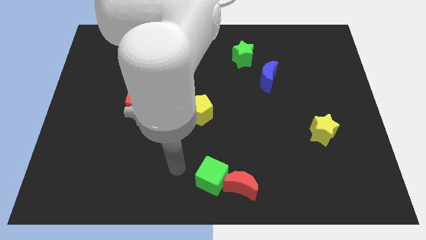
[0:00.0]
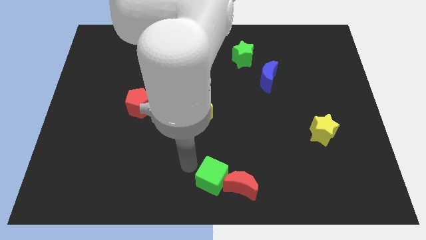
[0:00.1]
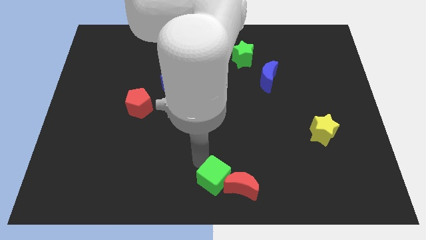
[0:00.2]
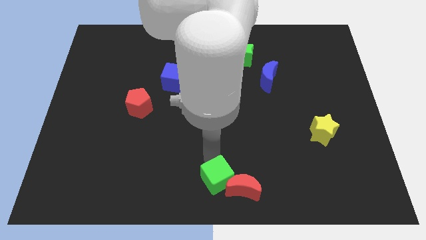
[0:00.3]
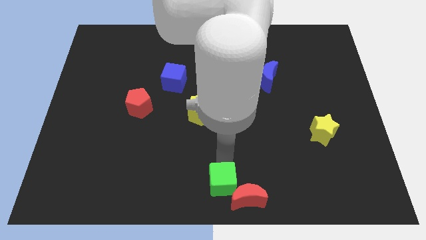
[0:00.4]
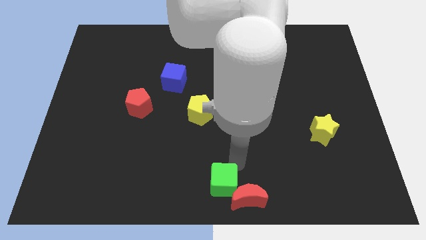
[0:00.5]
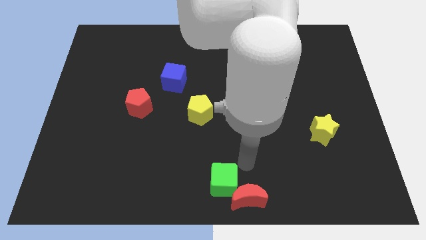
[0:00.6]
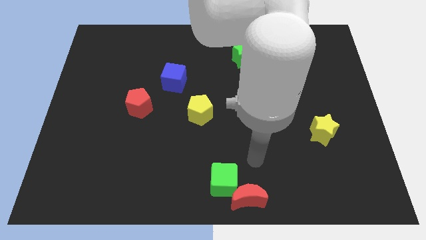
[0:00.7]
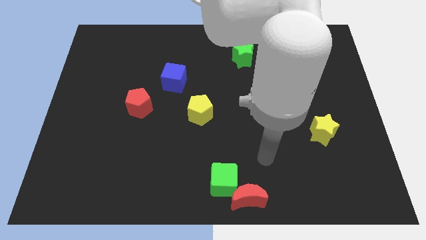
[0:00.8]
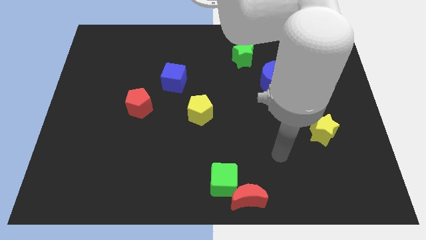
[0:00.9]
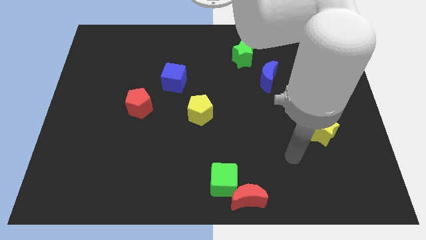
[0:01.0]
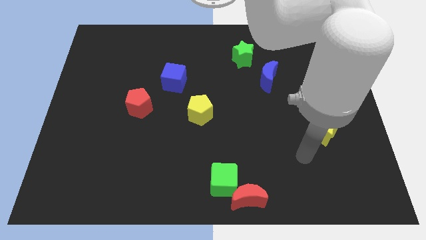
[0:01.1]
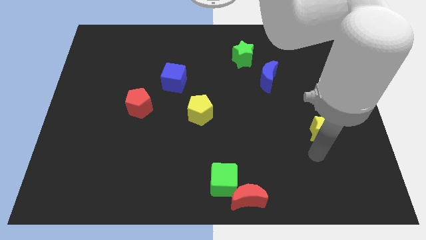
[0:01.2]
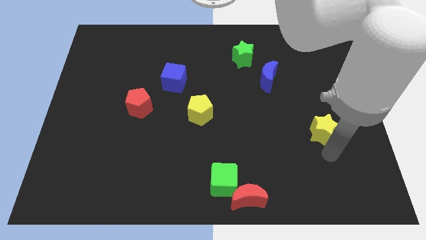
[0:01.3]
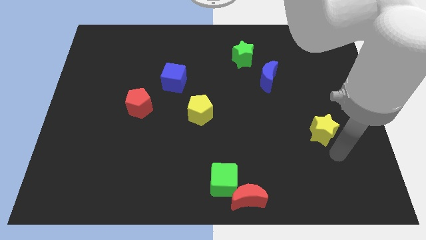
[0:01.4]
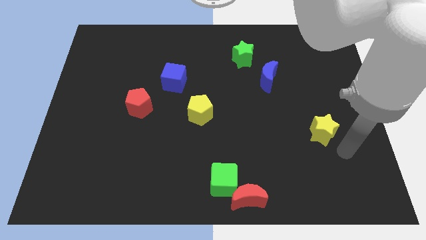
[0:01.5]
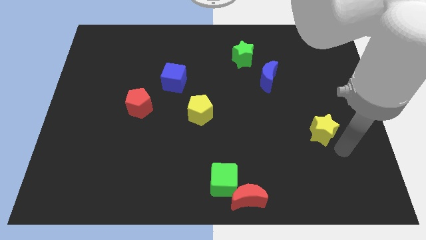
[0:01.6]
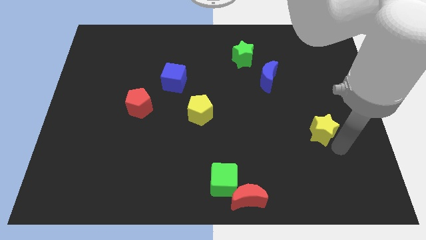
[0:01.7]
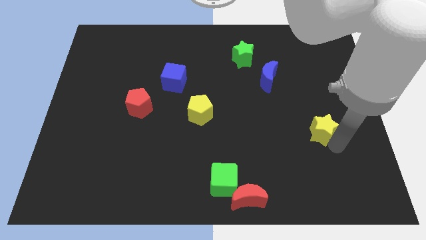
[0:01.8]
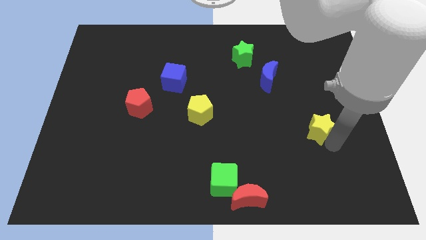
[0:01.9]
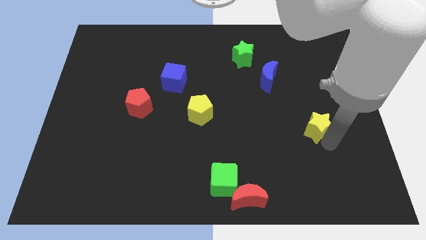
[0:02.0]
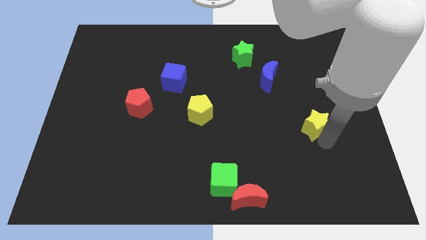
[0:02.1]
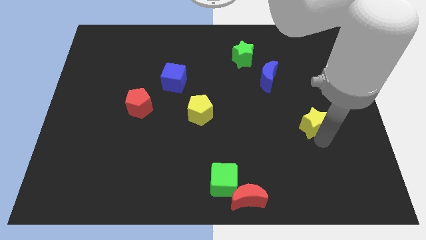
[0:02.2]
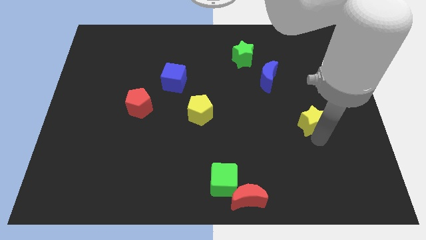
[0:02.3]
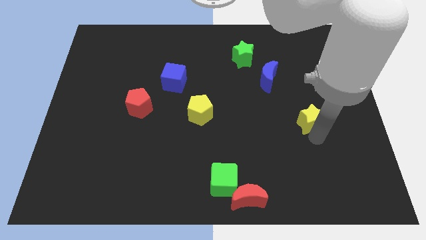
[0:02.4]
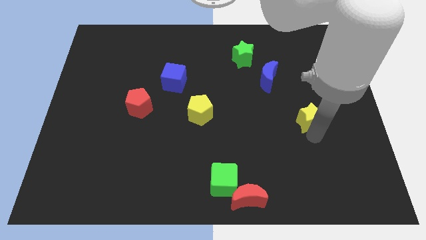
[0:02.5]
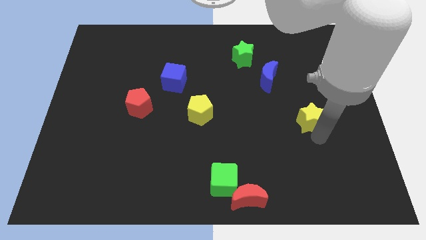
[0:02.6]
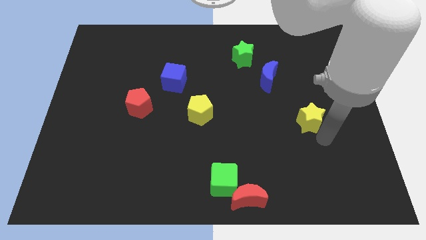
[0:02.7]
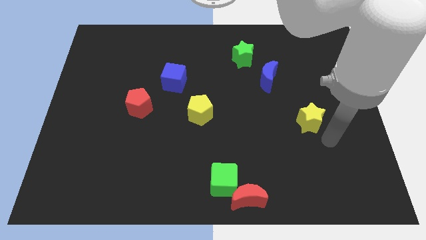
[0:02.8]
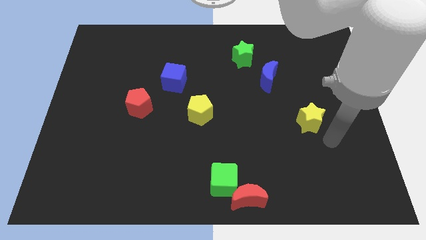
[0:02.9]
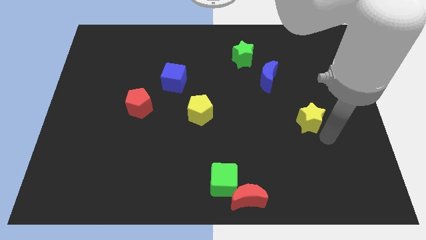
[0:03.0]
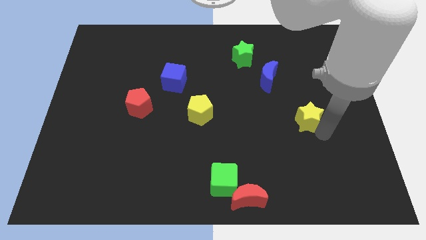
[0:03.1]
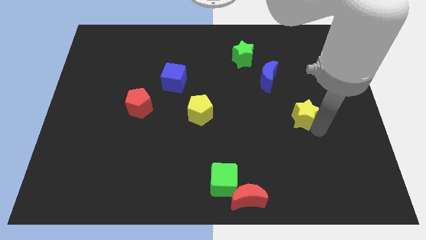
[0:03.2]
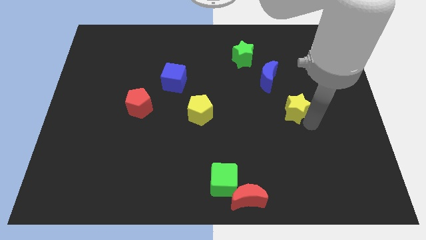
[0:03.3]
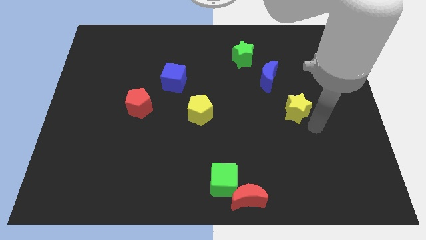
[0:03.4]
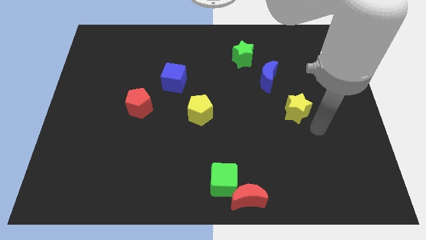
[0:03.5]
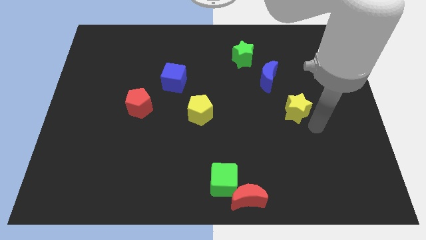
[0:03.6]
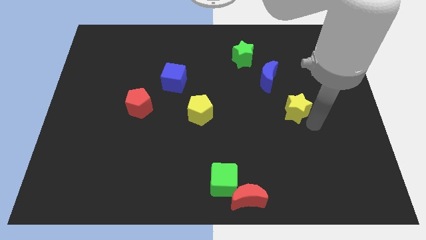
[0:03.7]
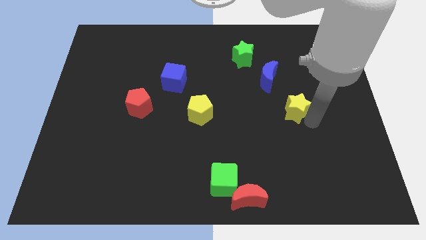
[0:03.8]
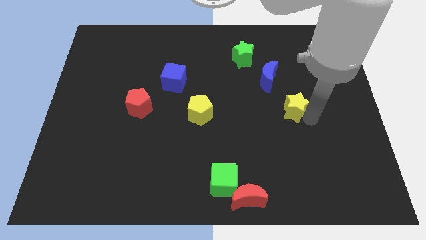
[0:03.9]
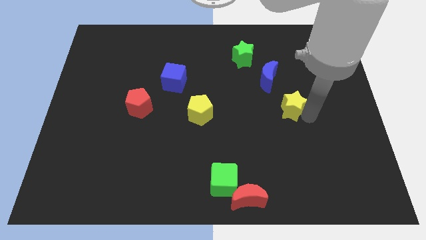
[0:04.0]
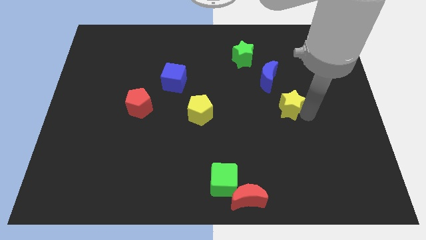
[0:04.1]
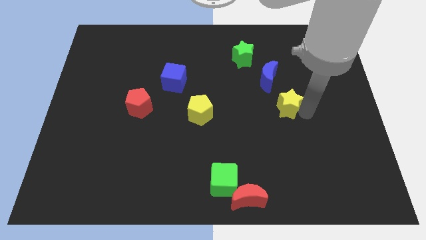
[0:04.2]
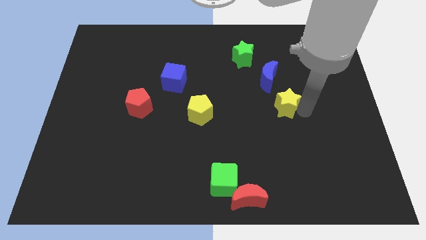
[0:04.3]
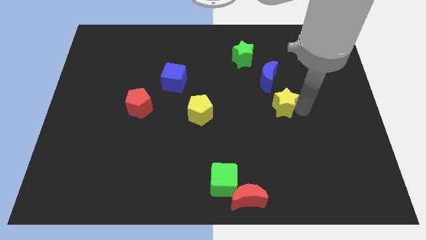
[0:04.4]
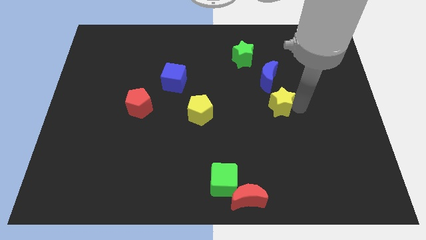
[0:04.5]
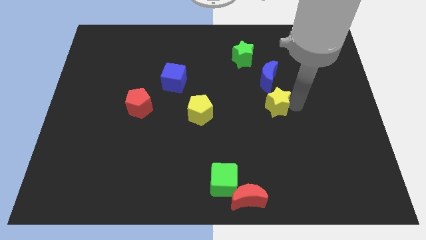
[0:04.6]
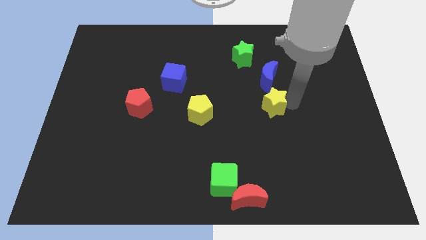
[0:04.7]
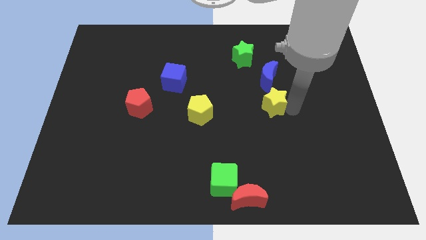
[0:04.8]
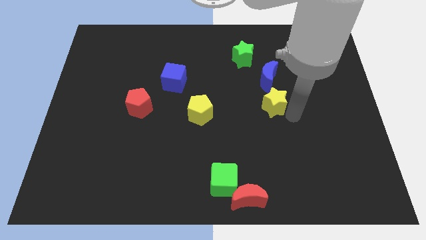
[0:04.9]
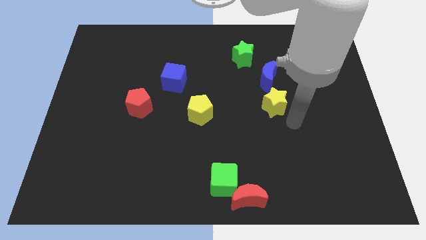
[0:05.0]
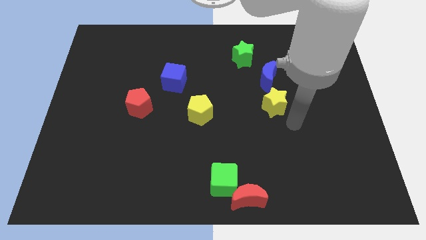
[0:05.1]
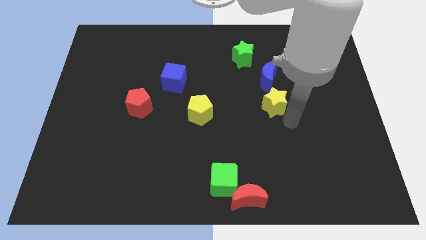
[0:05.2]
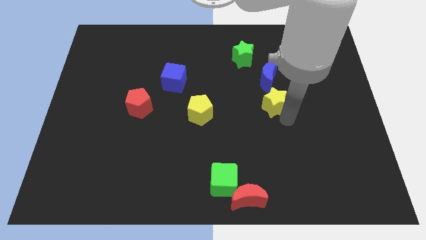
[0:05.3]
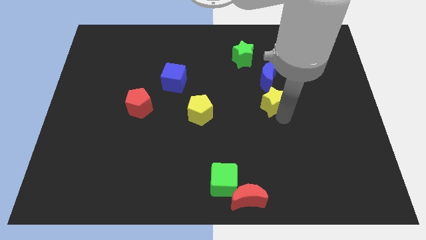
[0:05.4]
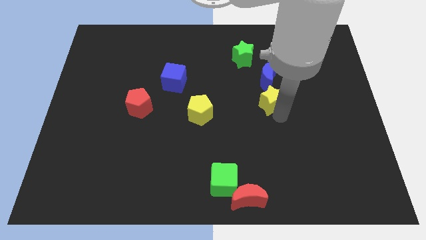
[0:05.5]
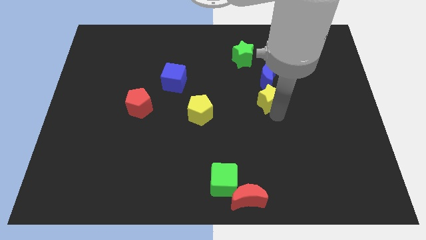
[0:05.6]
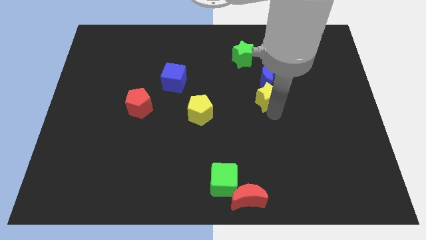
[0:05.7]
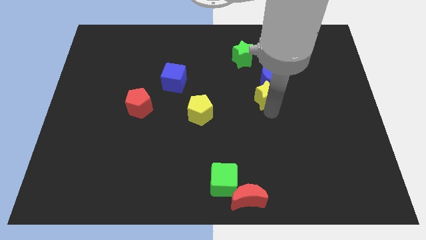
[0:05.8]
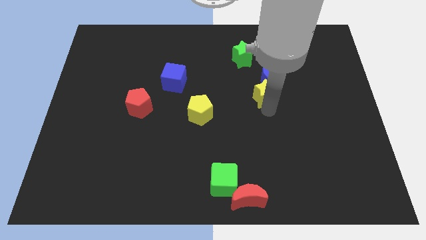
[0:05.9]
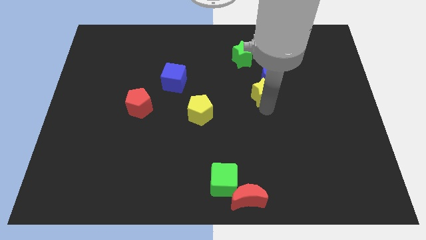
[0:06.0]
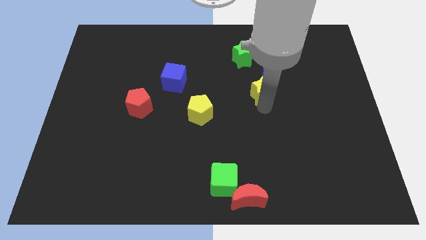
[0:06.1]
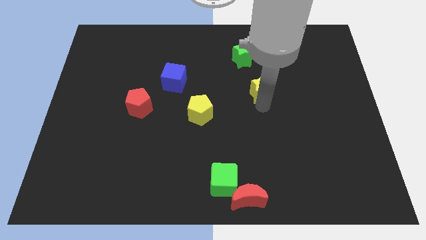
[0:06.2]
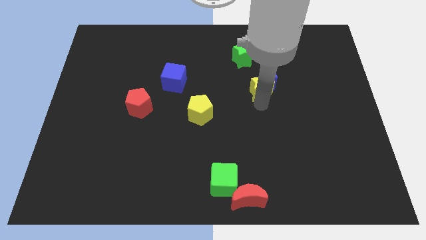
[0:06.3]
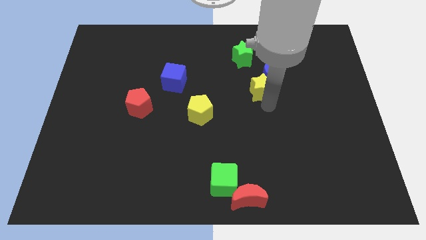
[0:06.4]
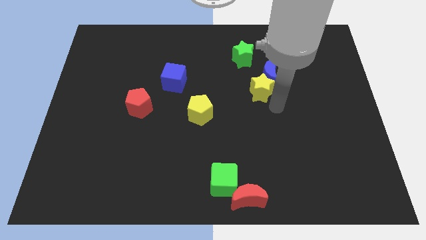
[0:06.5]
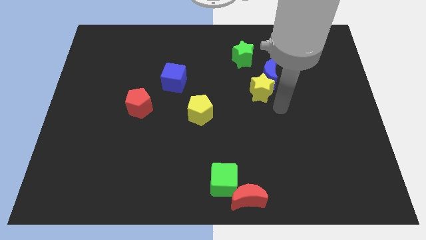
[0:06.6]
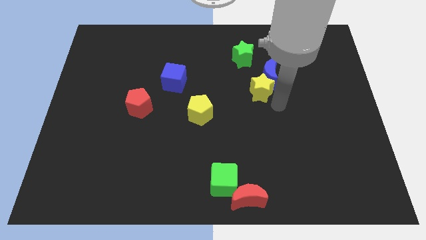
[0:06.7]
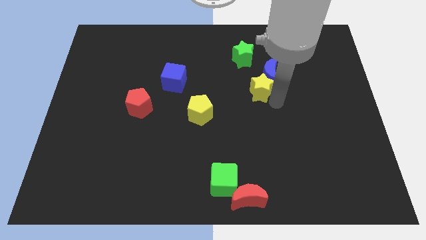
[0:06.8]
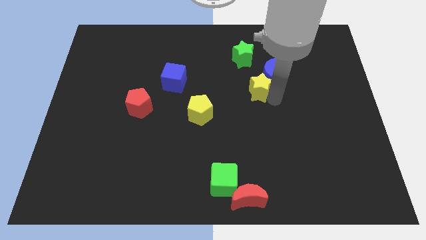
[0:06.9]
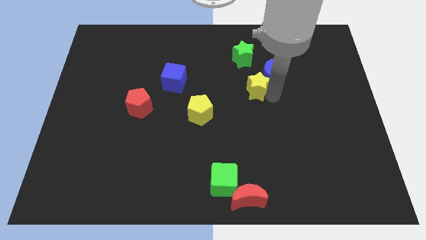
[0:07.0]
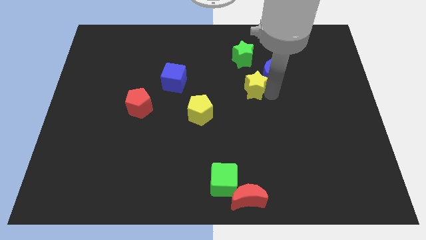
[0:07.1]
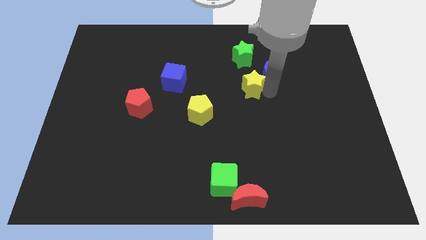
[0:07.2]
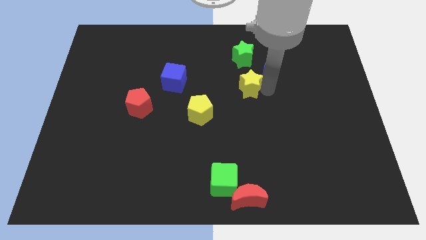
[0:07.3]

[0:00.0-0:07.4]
slide the yellow star upwards and to the left diagonally

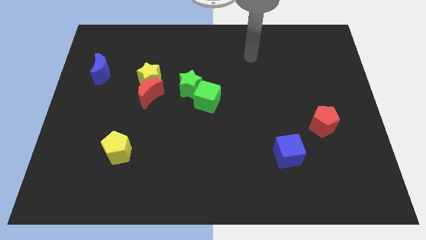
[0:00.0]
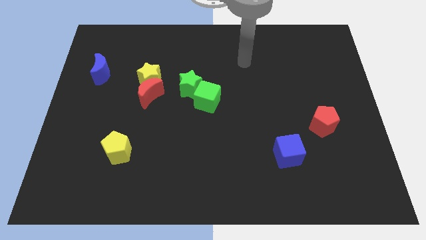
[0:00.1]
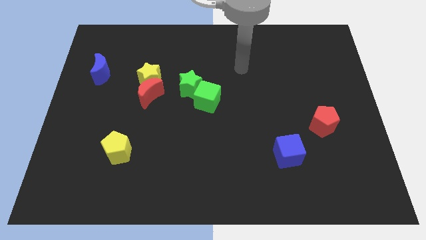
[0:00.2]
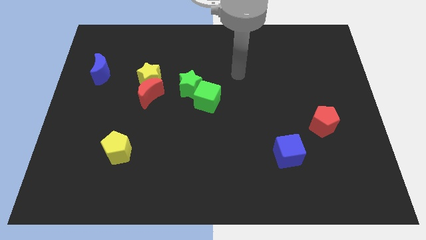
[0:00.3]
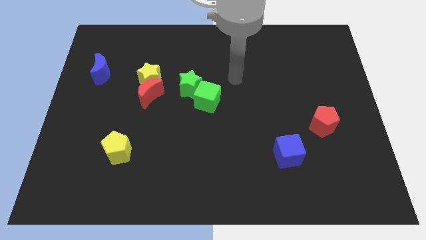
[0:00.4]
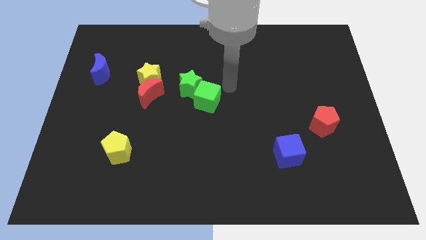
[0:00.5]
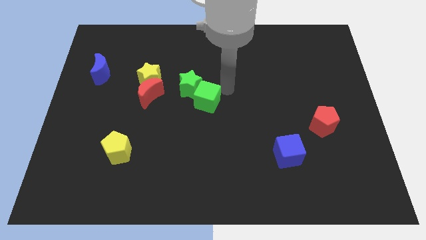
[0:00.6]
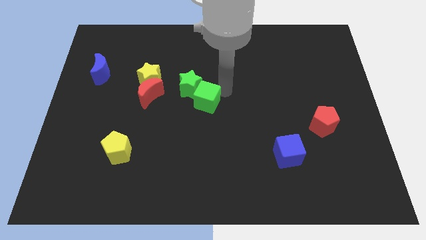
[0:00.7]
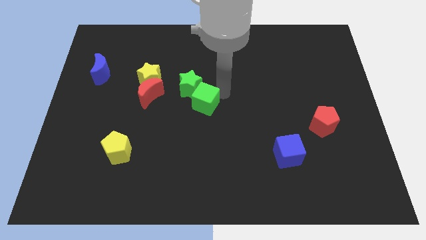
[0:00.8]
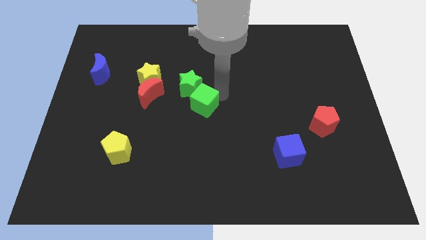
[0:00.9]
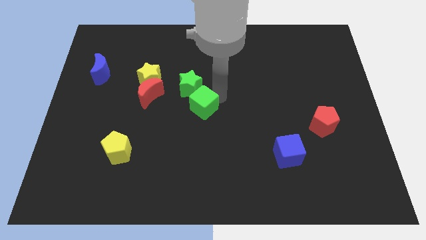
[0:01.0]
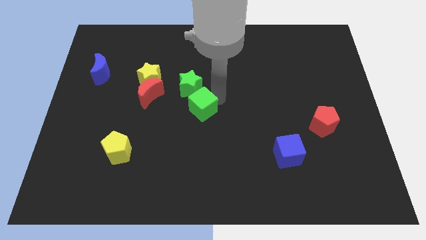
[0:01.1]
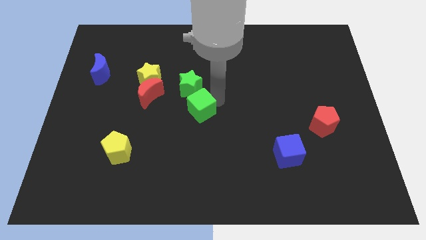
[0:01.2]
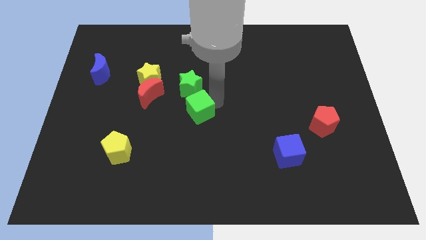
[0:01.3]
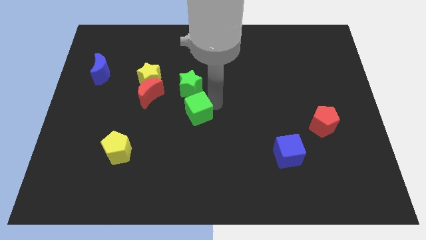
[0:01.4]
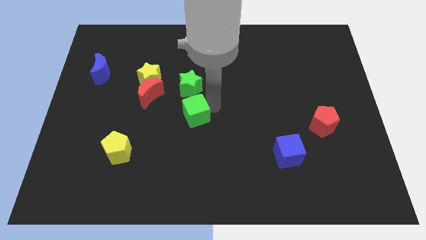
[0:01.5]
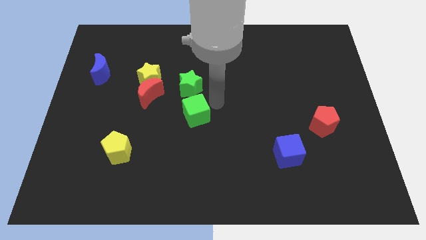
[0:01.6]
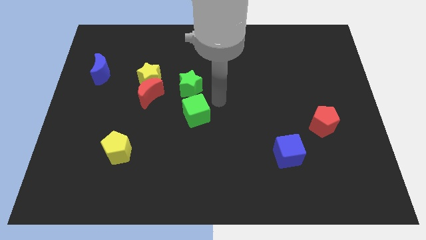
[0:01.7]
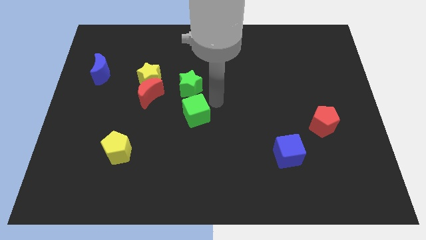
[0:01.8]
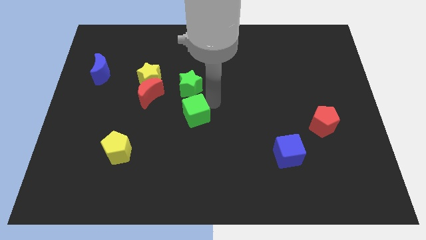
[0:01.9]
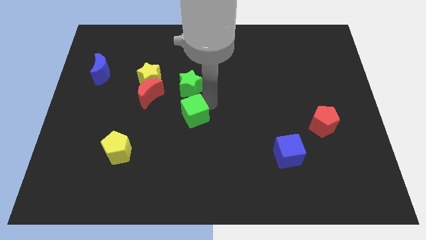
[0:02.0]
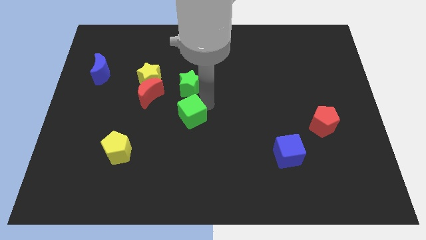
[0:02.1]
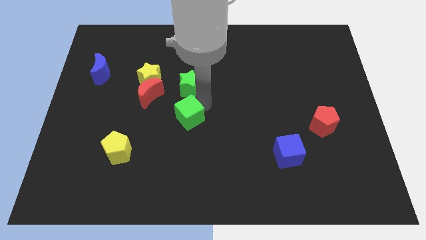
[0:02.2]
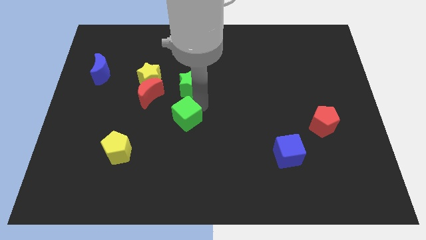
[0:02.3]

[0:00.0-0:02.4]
slightly move the green cube downwards and left
